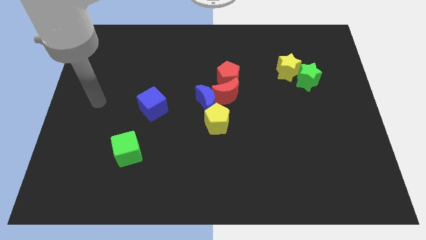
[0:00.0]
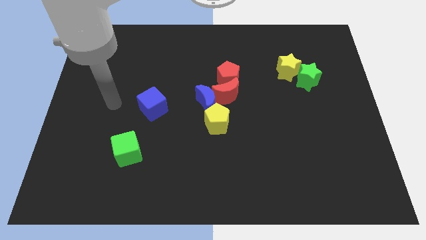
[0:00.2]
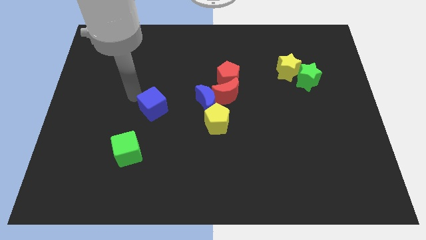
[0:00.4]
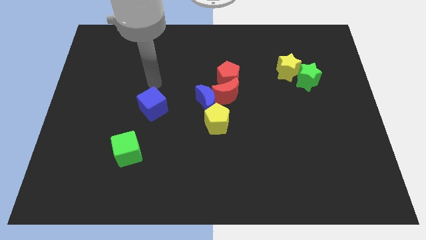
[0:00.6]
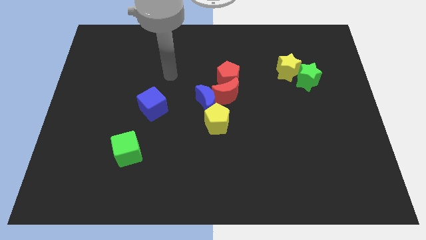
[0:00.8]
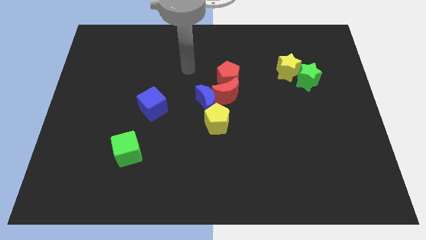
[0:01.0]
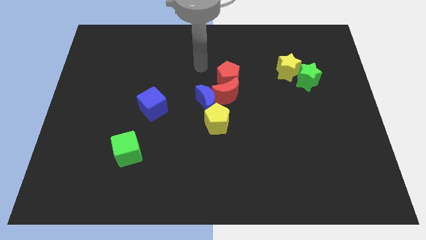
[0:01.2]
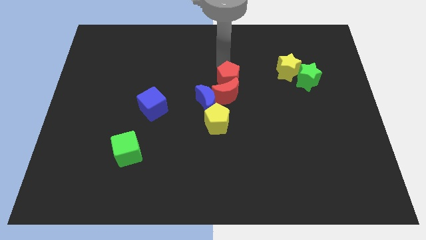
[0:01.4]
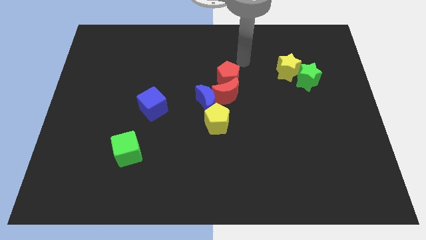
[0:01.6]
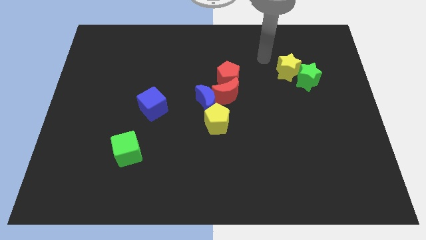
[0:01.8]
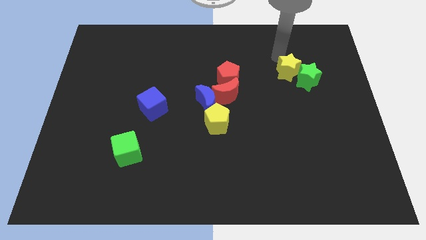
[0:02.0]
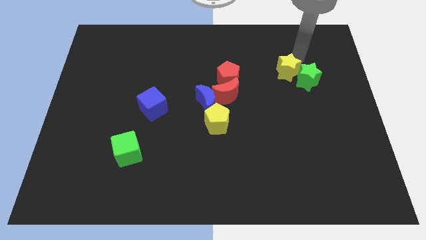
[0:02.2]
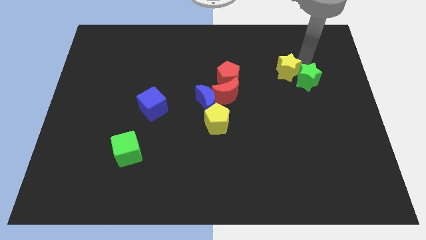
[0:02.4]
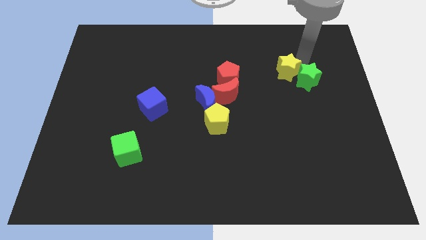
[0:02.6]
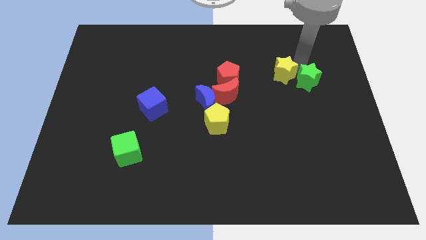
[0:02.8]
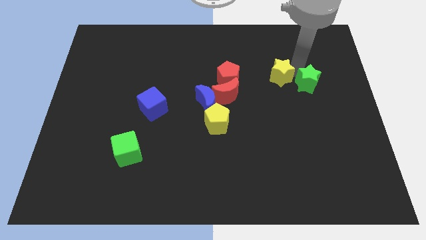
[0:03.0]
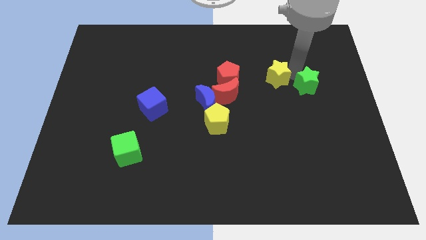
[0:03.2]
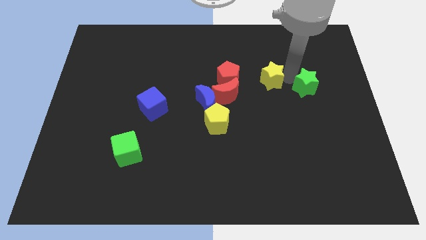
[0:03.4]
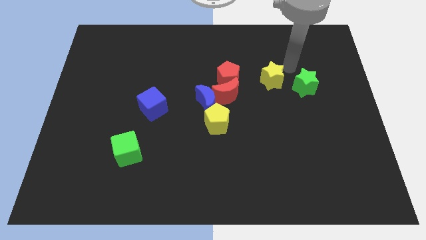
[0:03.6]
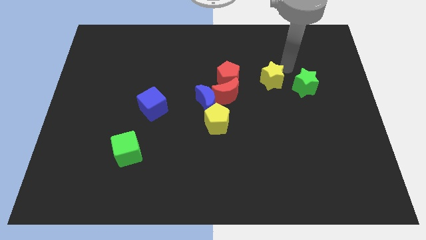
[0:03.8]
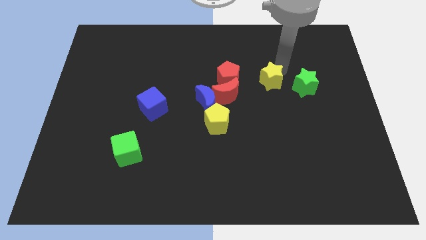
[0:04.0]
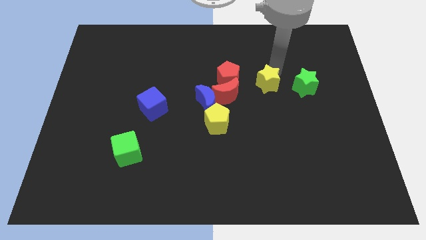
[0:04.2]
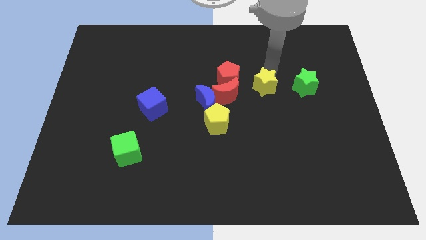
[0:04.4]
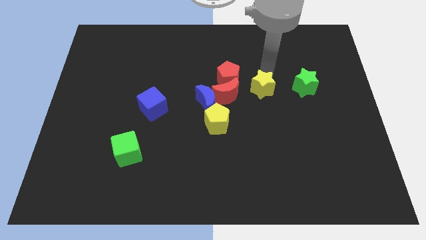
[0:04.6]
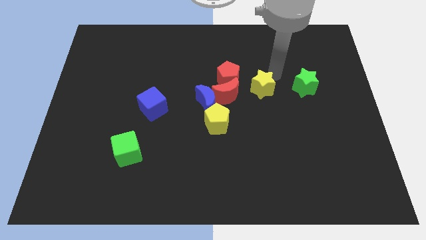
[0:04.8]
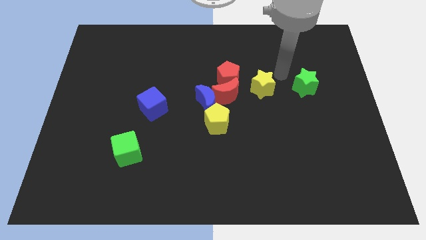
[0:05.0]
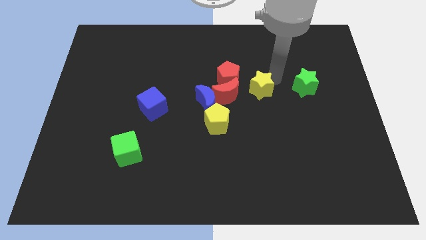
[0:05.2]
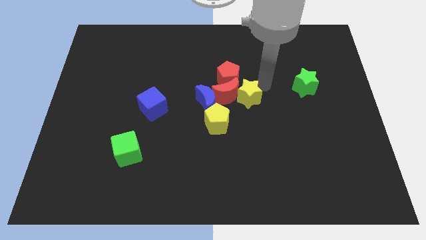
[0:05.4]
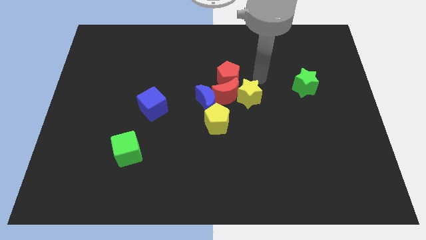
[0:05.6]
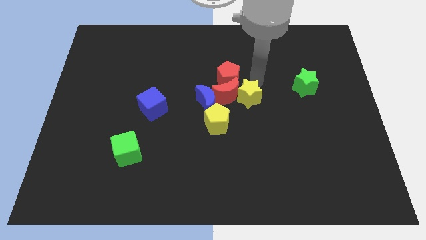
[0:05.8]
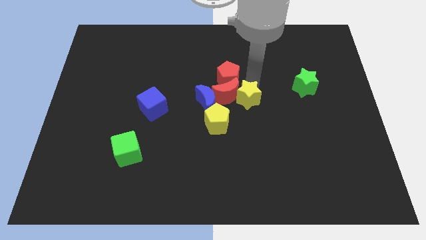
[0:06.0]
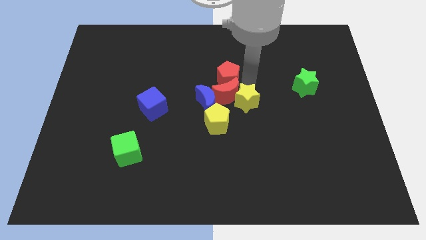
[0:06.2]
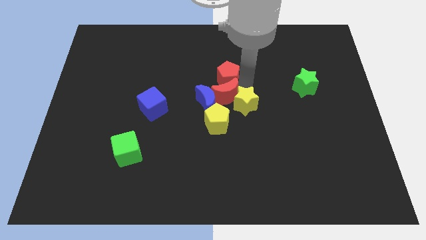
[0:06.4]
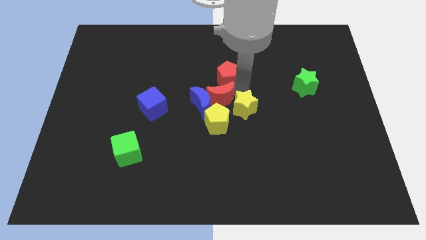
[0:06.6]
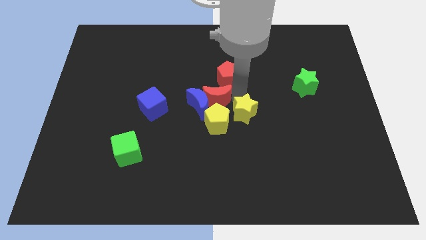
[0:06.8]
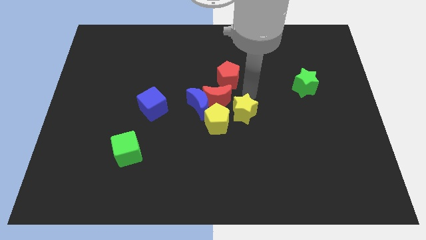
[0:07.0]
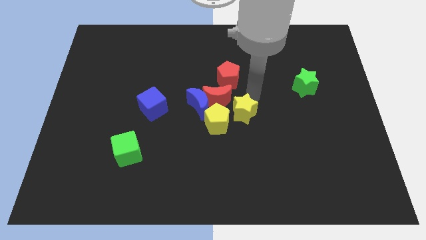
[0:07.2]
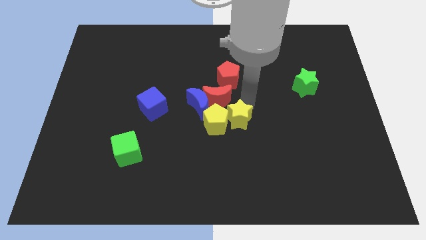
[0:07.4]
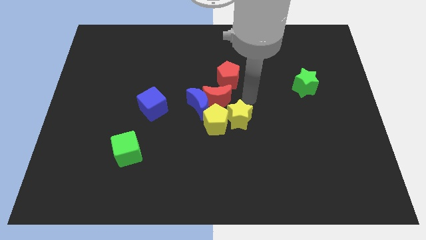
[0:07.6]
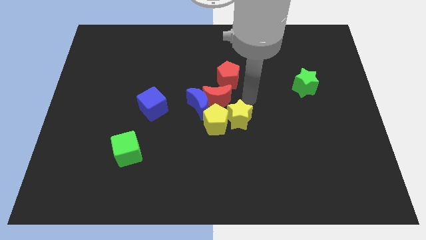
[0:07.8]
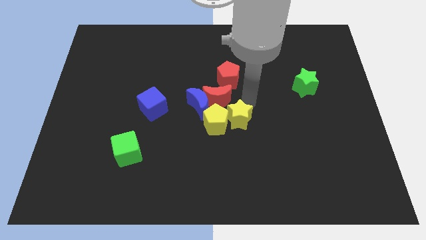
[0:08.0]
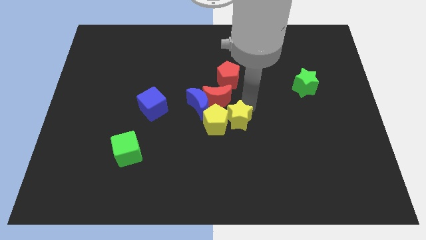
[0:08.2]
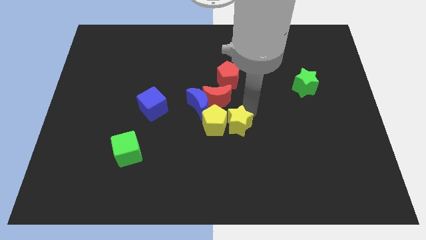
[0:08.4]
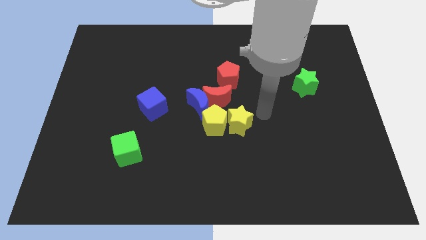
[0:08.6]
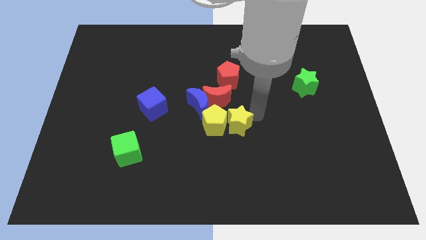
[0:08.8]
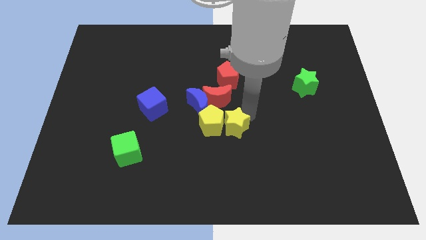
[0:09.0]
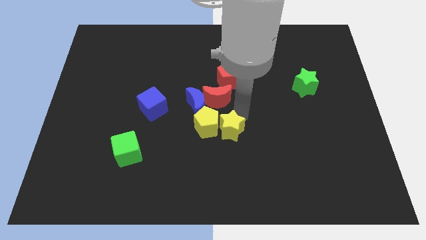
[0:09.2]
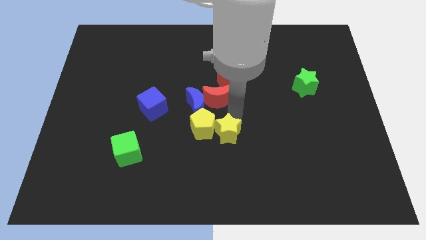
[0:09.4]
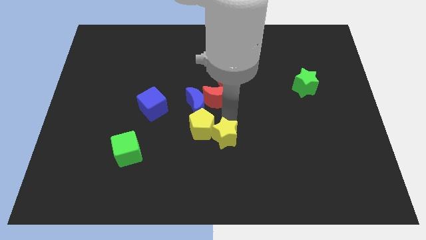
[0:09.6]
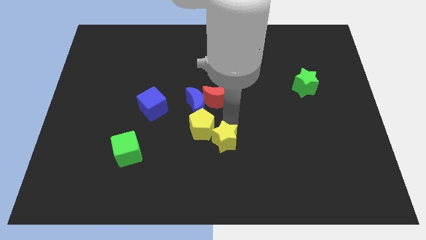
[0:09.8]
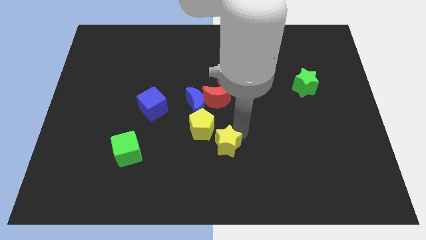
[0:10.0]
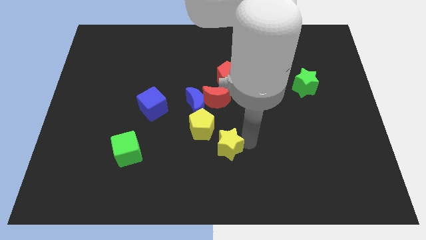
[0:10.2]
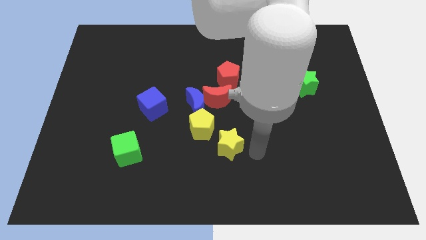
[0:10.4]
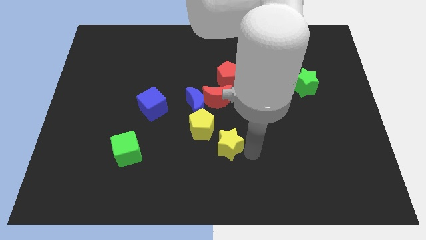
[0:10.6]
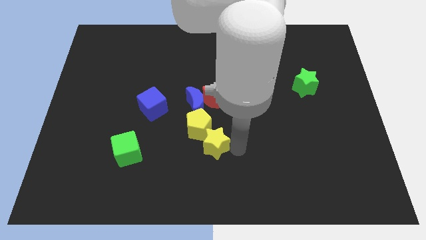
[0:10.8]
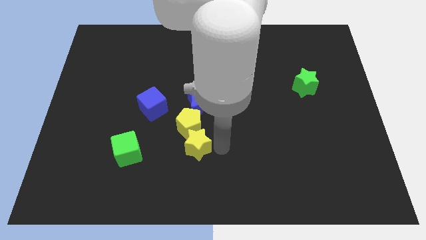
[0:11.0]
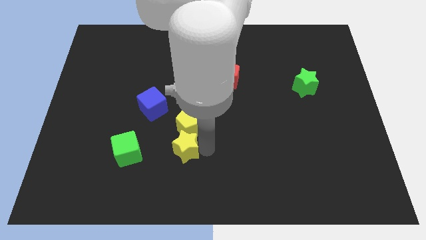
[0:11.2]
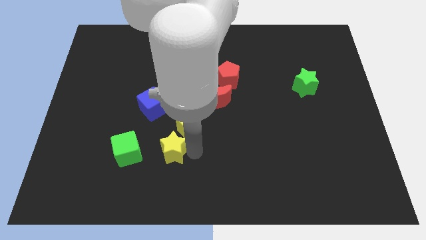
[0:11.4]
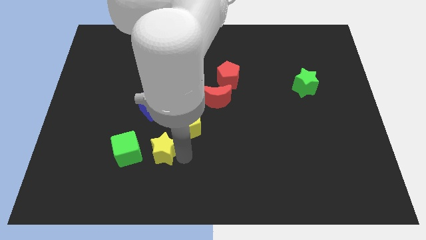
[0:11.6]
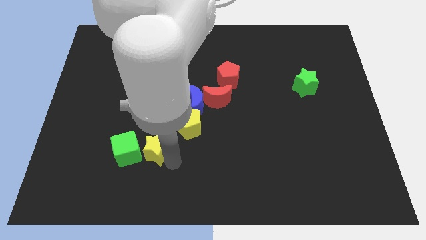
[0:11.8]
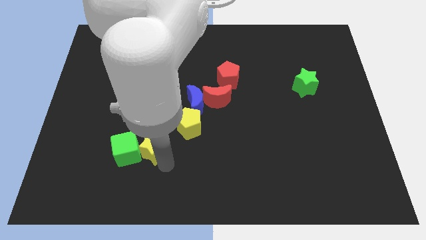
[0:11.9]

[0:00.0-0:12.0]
slide the yellow star close to the green cube

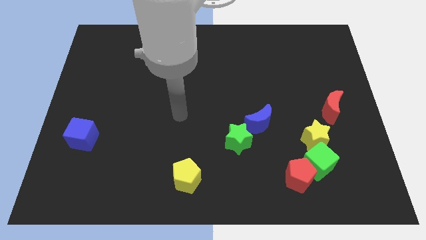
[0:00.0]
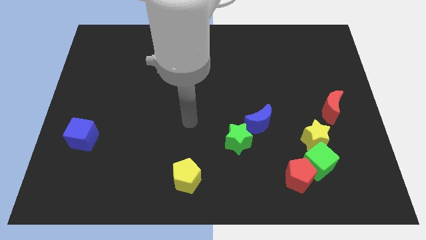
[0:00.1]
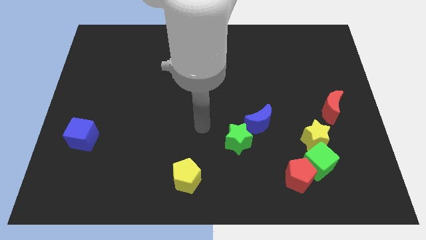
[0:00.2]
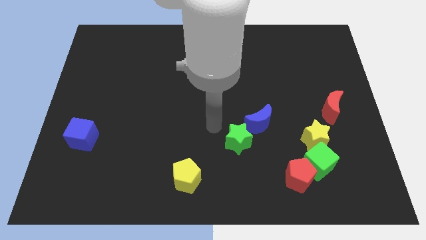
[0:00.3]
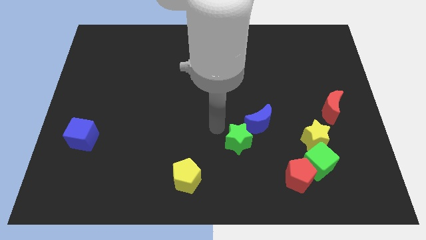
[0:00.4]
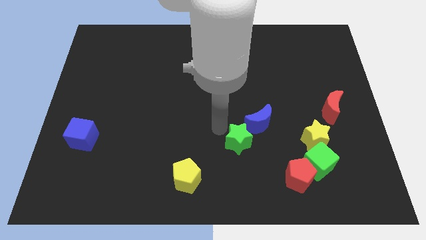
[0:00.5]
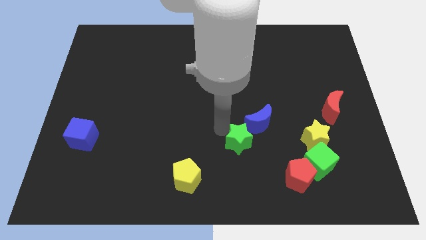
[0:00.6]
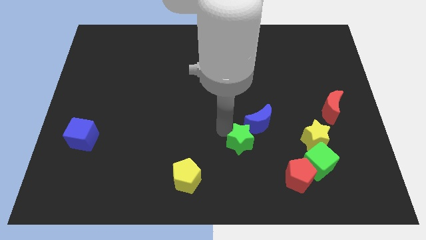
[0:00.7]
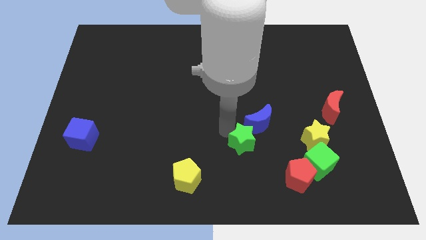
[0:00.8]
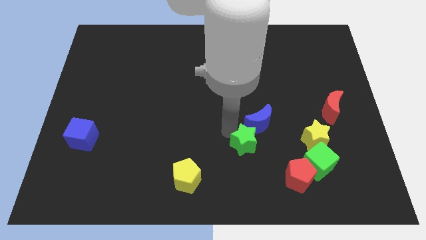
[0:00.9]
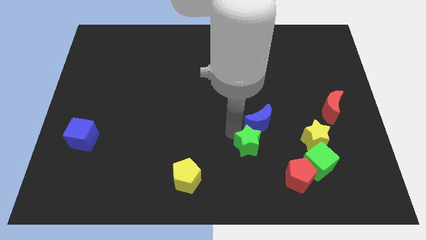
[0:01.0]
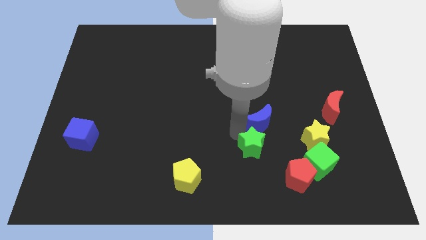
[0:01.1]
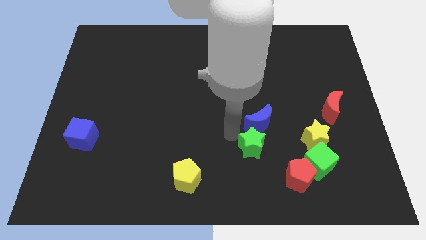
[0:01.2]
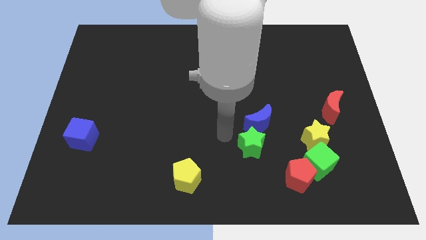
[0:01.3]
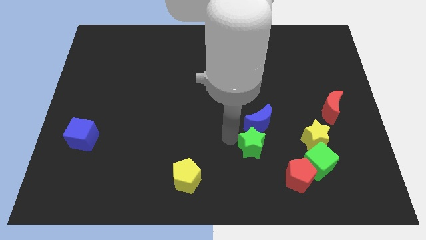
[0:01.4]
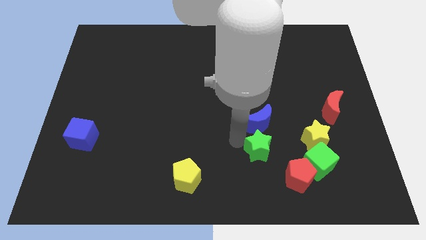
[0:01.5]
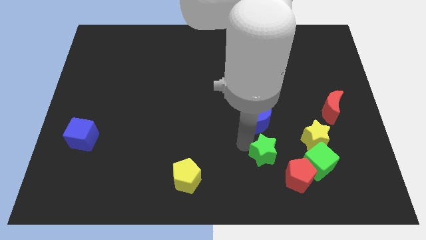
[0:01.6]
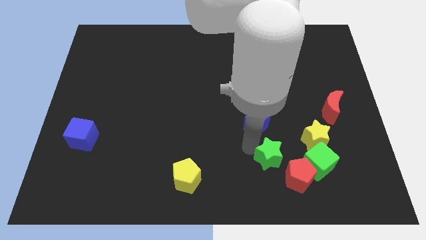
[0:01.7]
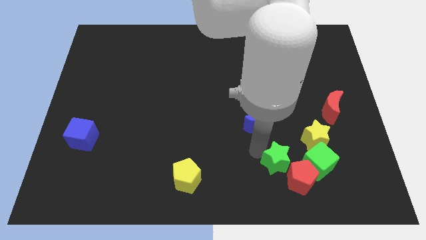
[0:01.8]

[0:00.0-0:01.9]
slide the green star next to the red pentagon
